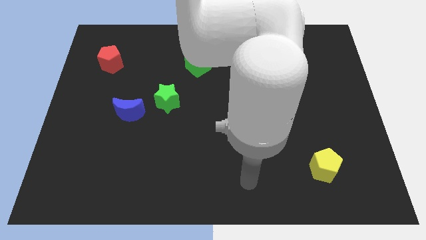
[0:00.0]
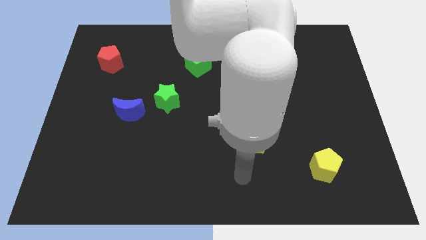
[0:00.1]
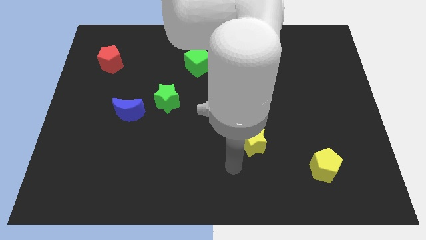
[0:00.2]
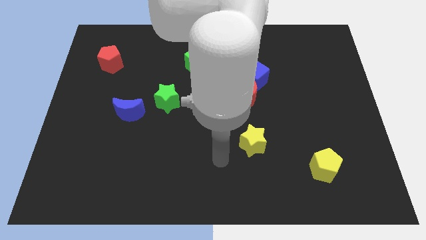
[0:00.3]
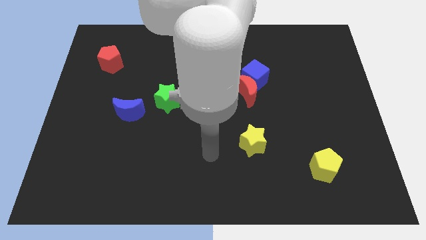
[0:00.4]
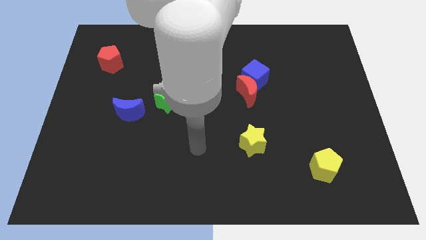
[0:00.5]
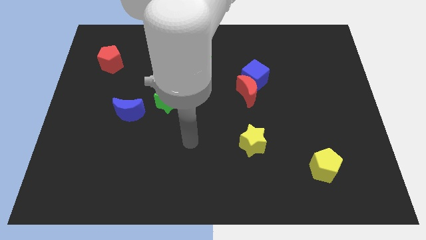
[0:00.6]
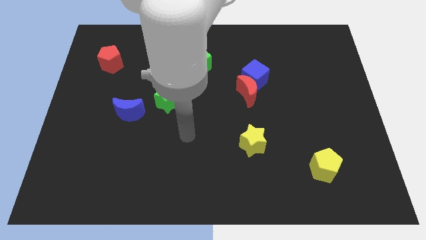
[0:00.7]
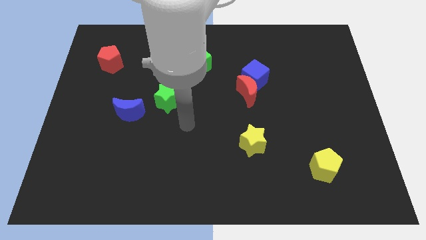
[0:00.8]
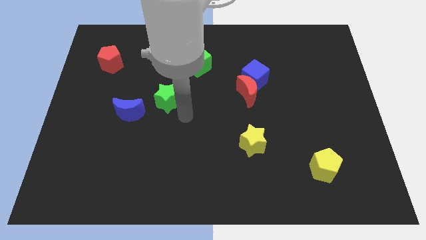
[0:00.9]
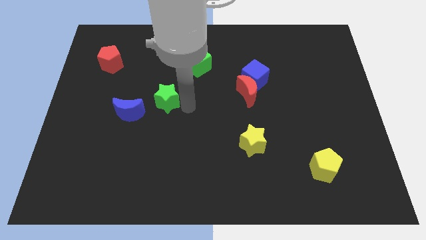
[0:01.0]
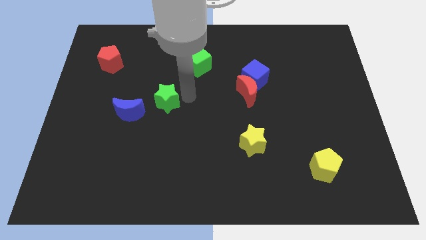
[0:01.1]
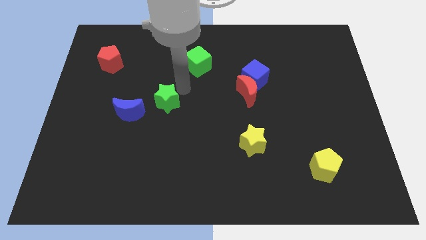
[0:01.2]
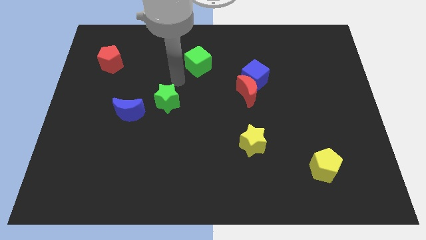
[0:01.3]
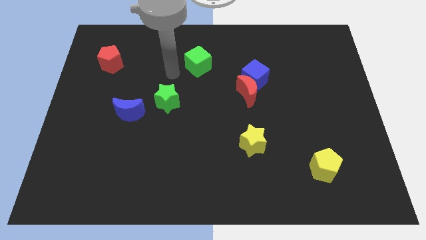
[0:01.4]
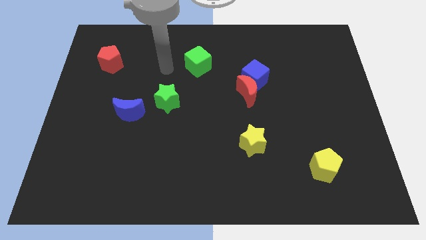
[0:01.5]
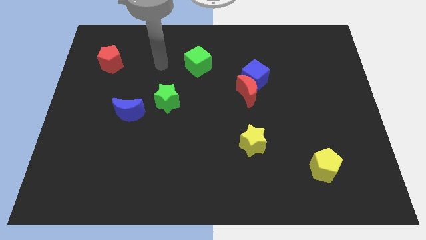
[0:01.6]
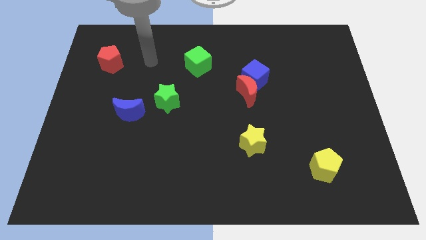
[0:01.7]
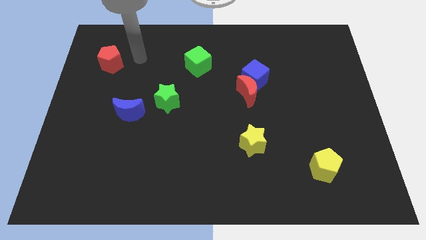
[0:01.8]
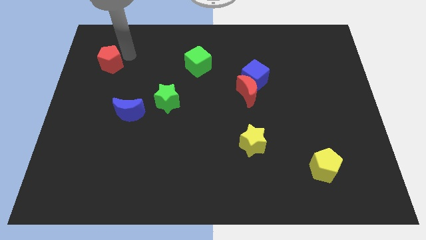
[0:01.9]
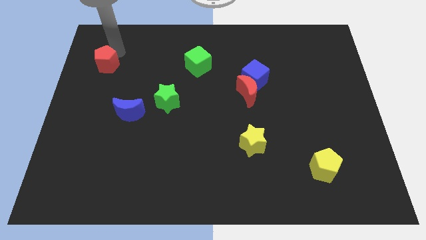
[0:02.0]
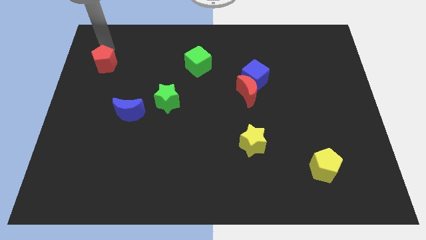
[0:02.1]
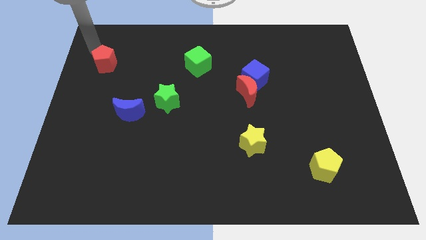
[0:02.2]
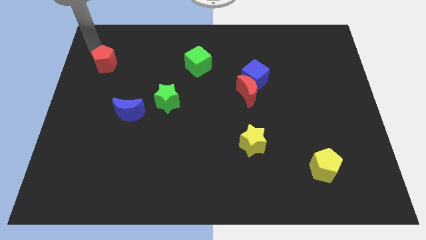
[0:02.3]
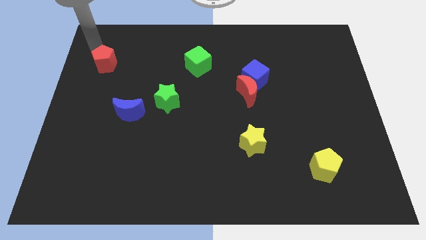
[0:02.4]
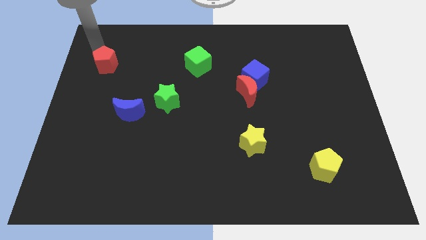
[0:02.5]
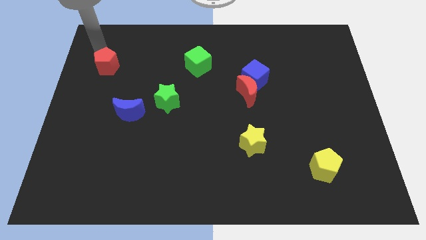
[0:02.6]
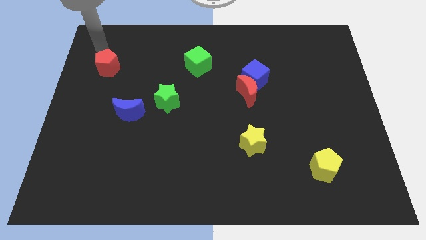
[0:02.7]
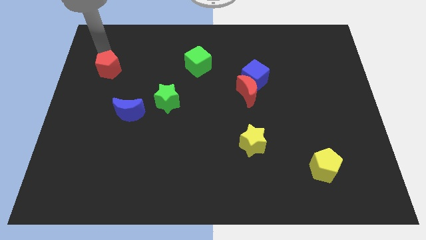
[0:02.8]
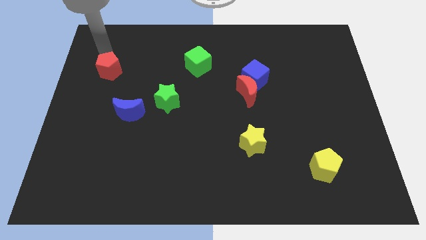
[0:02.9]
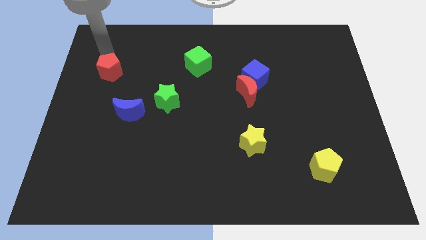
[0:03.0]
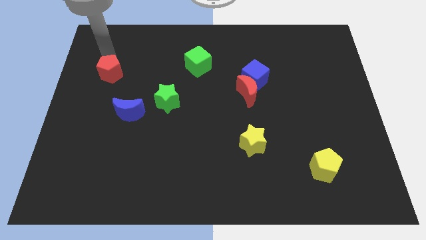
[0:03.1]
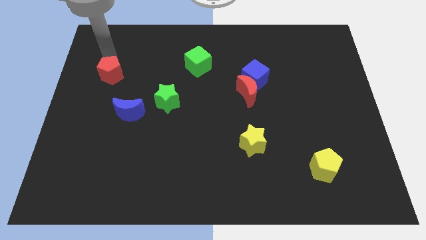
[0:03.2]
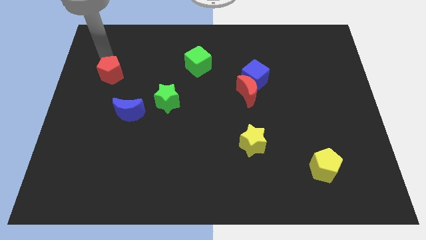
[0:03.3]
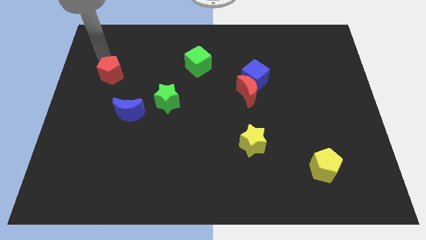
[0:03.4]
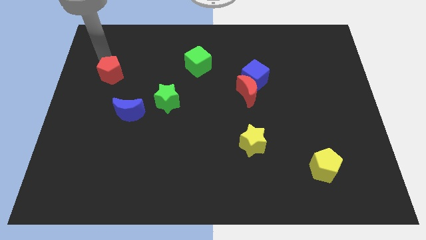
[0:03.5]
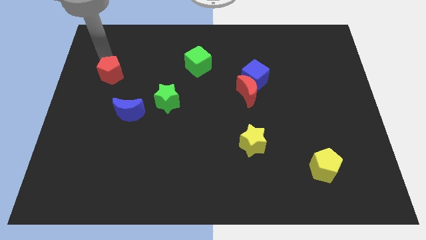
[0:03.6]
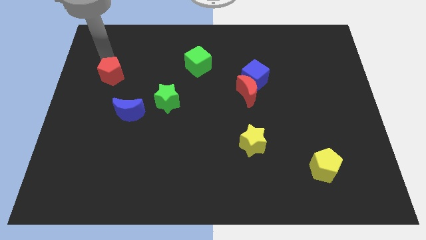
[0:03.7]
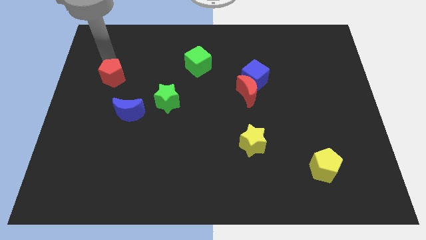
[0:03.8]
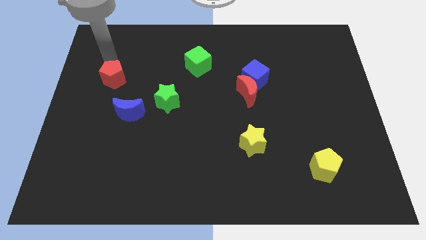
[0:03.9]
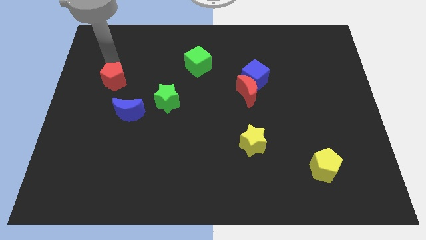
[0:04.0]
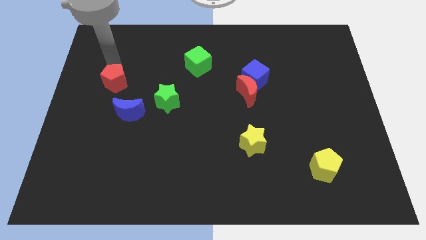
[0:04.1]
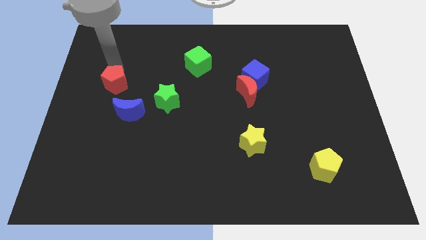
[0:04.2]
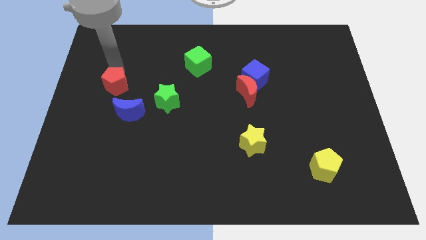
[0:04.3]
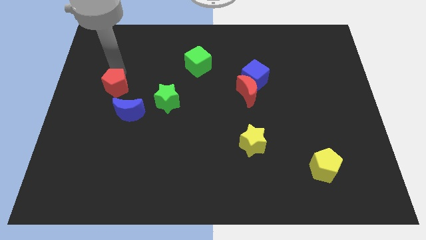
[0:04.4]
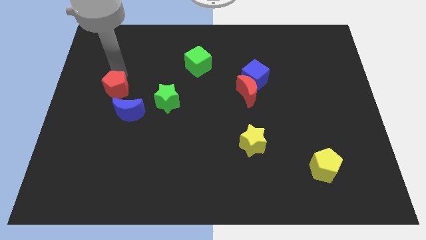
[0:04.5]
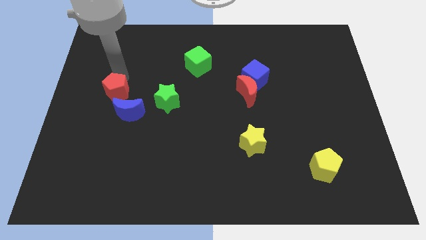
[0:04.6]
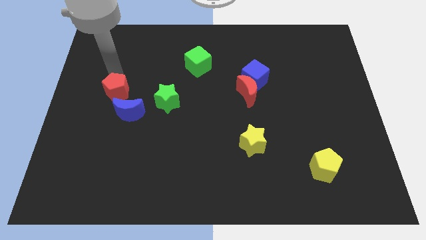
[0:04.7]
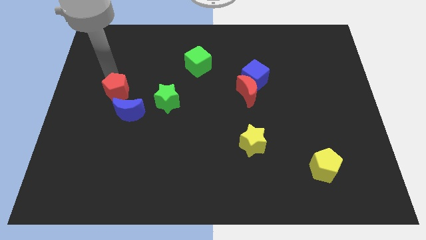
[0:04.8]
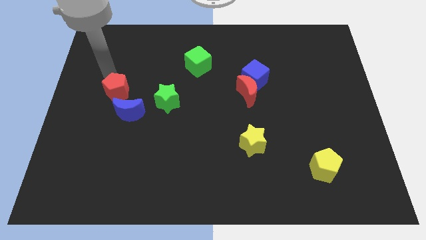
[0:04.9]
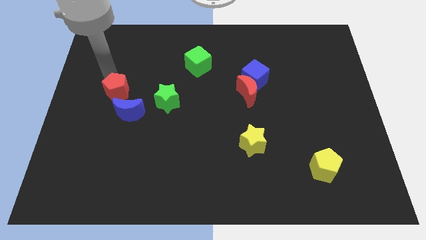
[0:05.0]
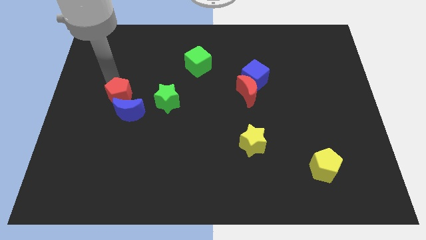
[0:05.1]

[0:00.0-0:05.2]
push the red pentagon to the blue moon

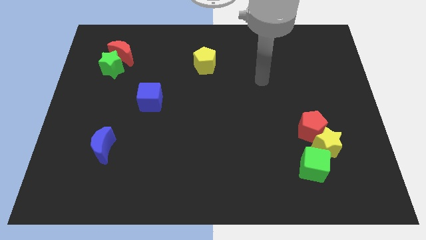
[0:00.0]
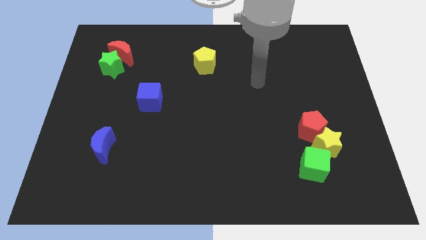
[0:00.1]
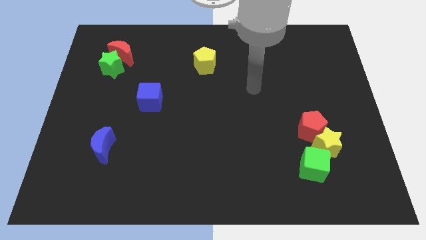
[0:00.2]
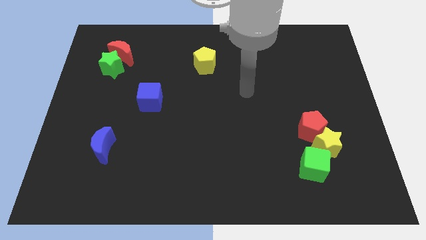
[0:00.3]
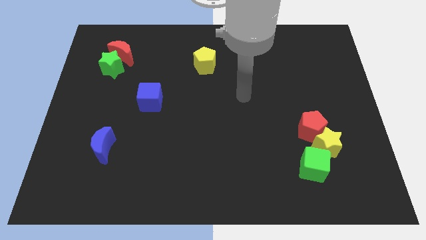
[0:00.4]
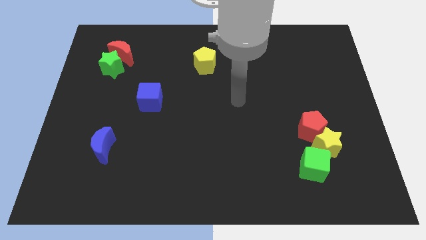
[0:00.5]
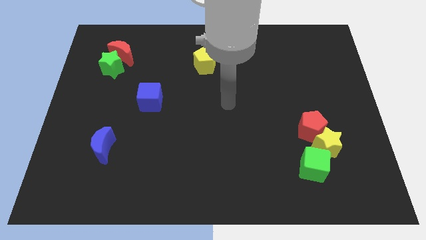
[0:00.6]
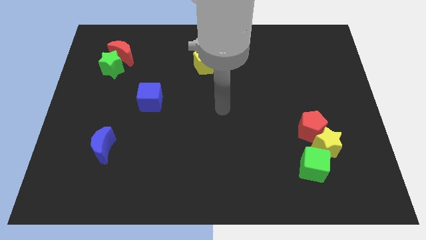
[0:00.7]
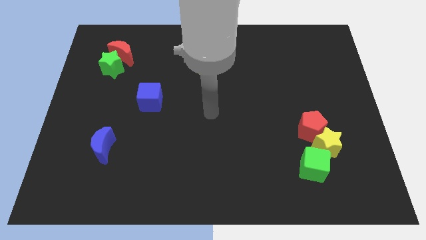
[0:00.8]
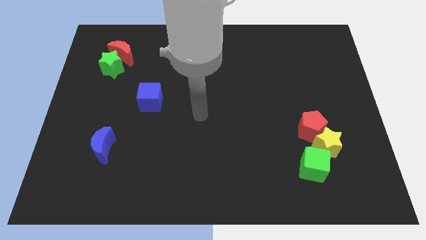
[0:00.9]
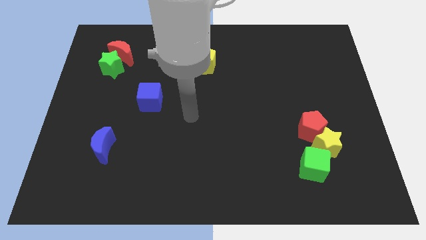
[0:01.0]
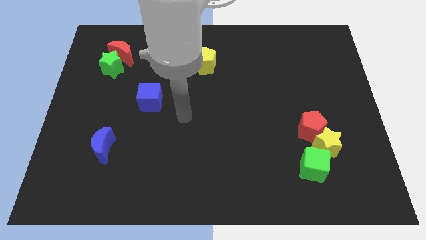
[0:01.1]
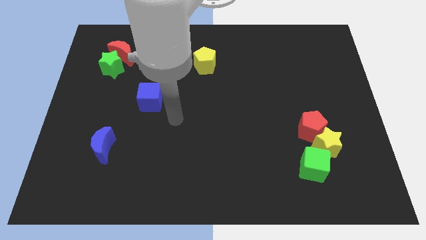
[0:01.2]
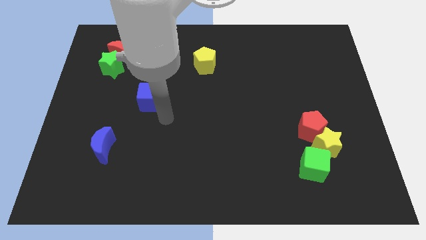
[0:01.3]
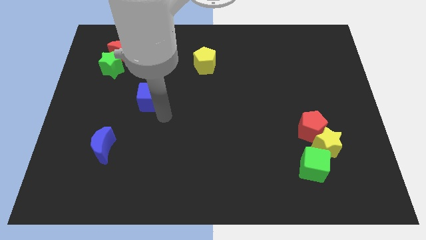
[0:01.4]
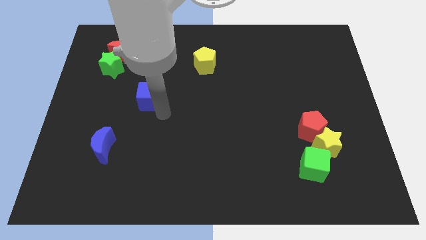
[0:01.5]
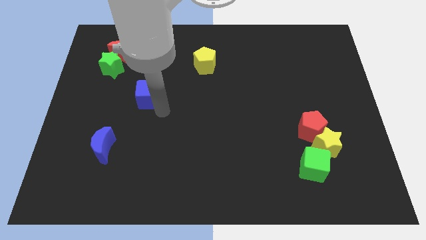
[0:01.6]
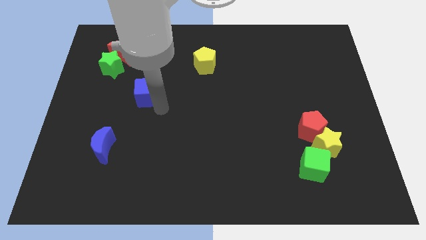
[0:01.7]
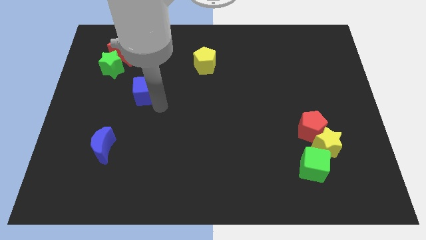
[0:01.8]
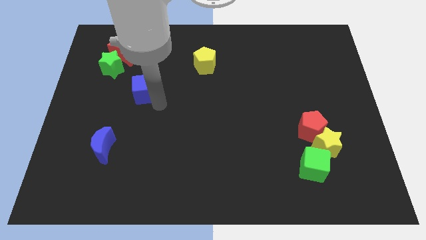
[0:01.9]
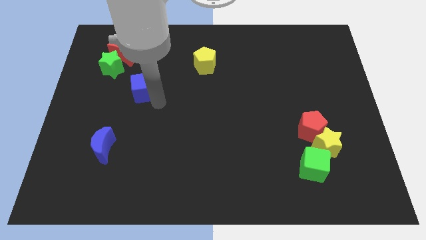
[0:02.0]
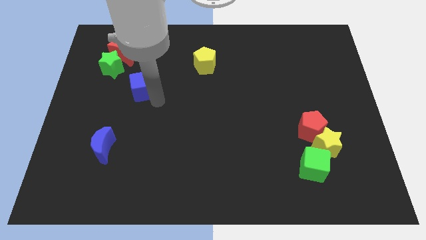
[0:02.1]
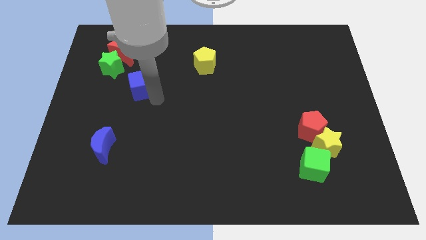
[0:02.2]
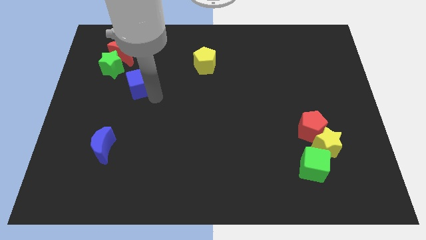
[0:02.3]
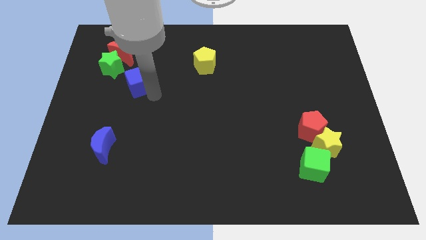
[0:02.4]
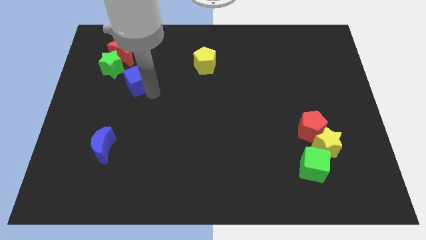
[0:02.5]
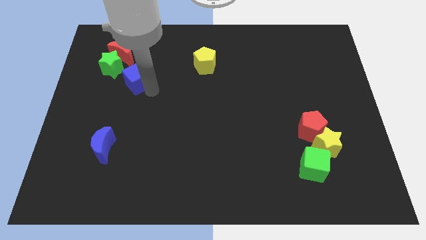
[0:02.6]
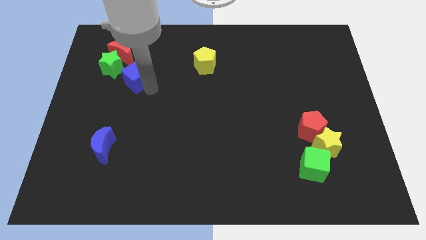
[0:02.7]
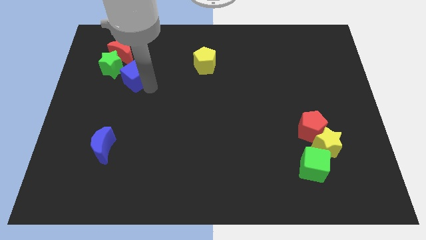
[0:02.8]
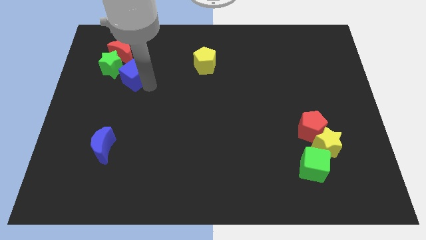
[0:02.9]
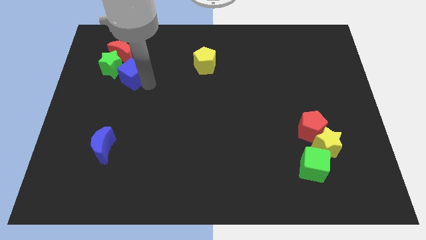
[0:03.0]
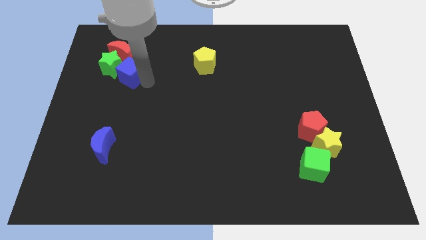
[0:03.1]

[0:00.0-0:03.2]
slide the blue cube close to the green star
